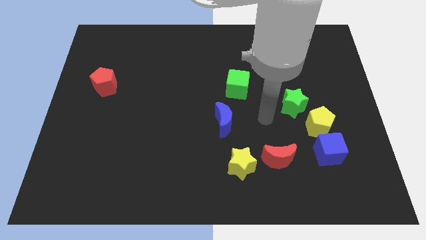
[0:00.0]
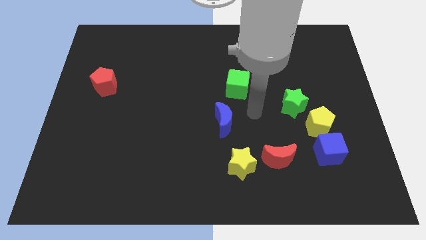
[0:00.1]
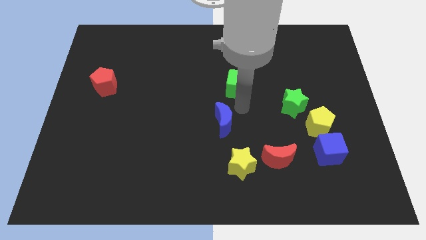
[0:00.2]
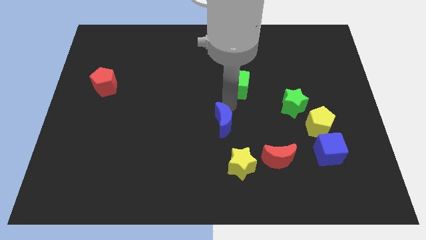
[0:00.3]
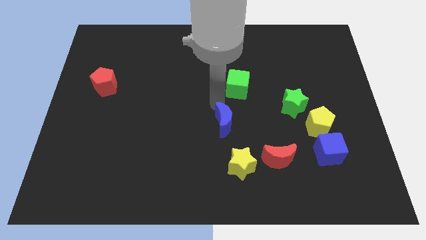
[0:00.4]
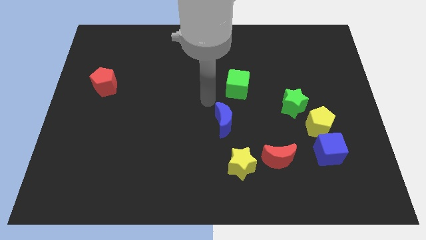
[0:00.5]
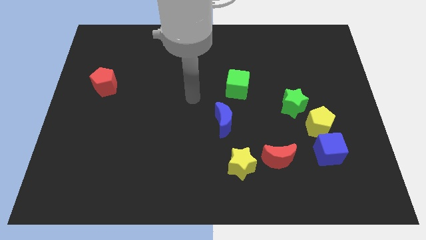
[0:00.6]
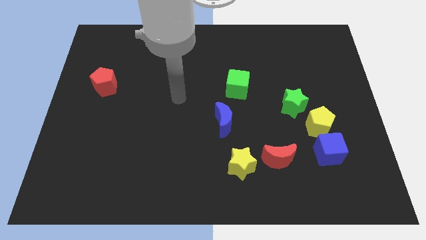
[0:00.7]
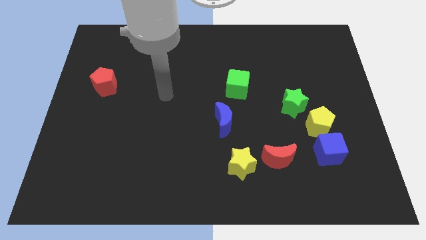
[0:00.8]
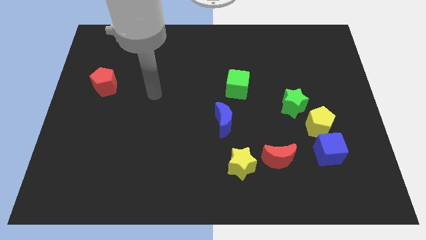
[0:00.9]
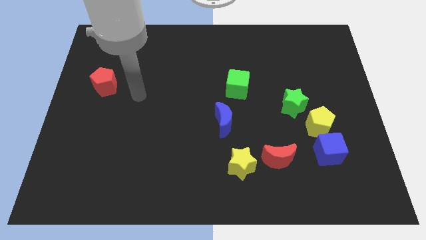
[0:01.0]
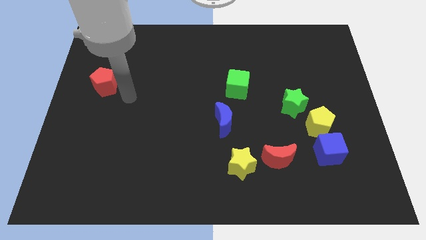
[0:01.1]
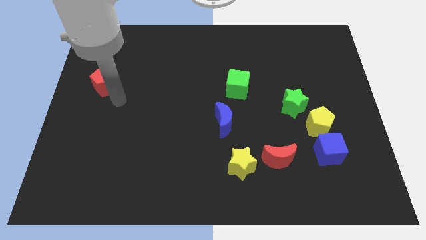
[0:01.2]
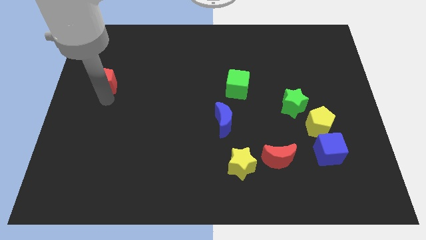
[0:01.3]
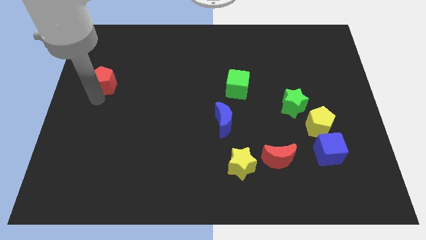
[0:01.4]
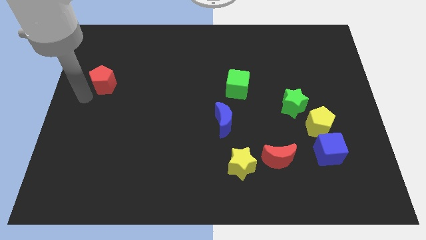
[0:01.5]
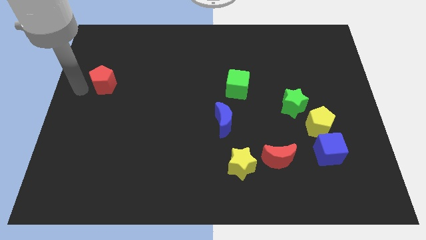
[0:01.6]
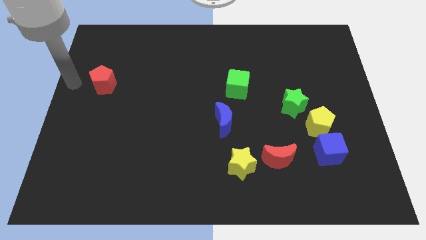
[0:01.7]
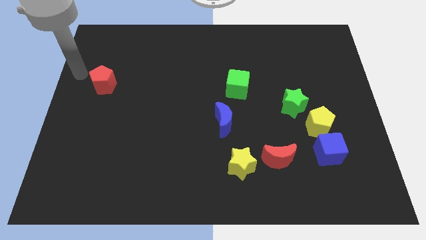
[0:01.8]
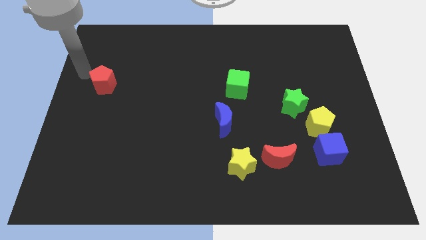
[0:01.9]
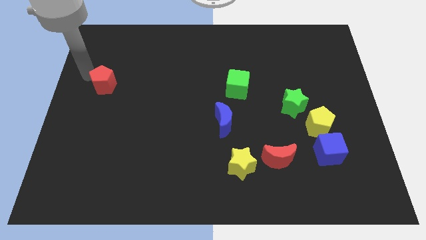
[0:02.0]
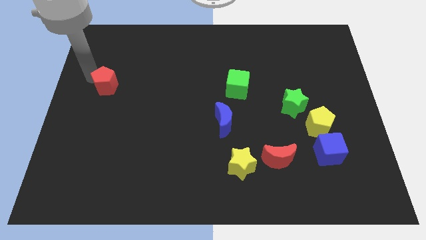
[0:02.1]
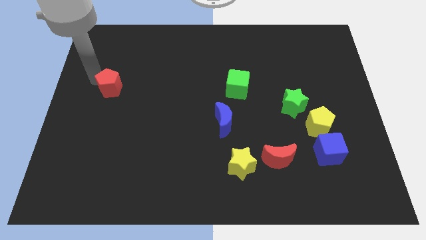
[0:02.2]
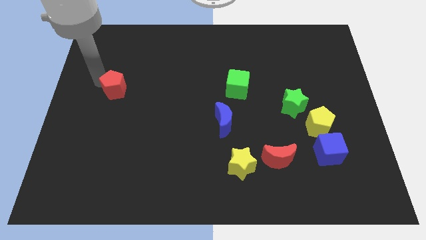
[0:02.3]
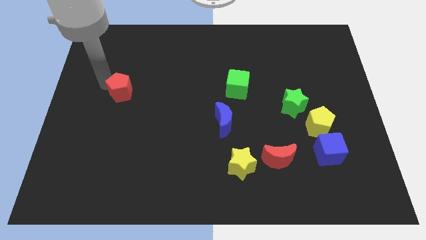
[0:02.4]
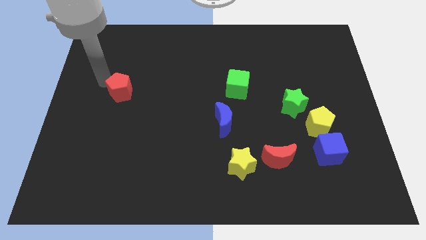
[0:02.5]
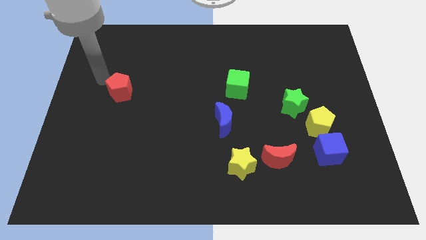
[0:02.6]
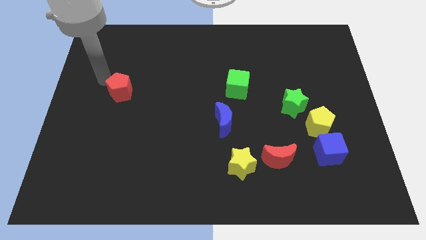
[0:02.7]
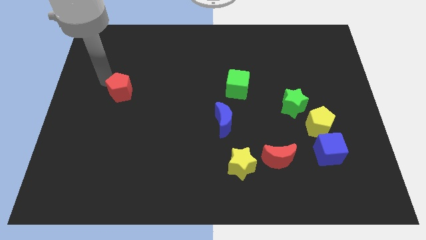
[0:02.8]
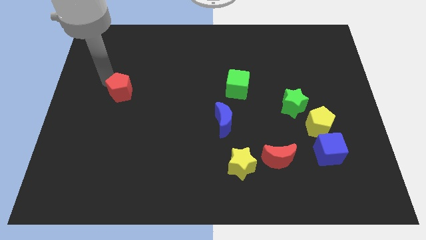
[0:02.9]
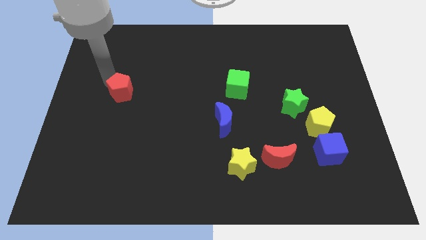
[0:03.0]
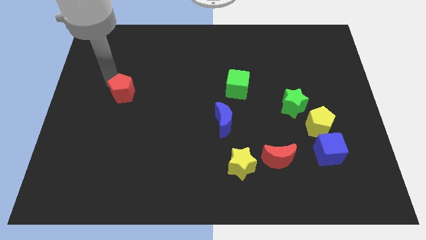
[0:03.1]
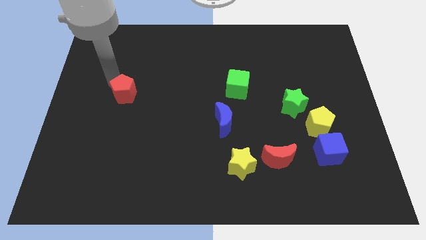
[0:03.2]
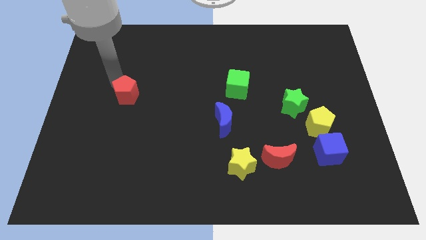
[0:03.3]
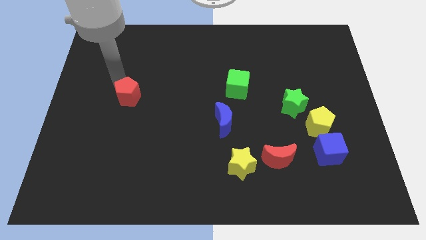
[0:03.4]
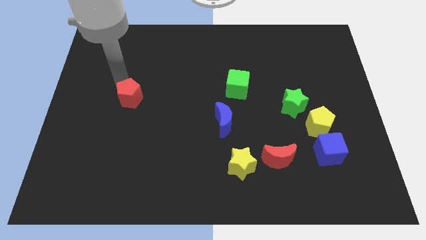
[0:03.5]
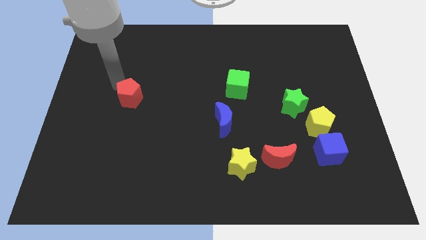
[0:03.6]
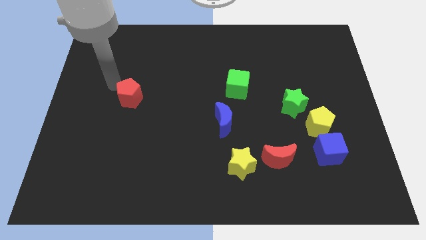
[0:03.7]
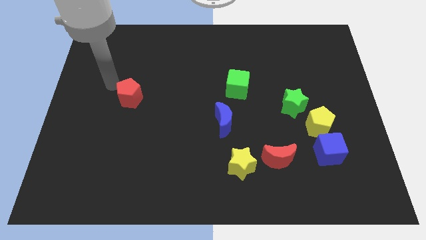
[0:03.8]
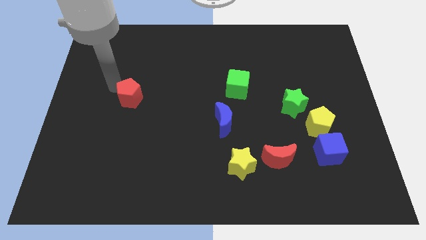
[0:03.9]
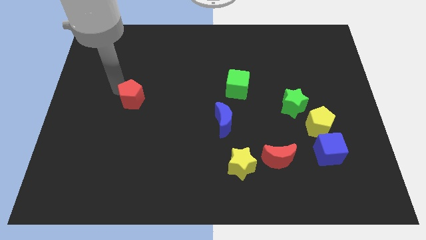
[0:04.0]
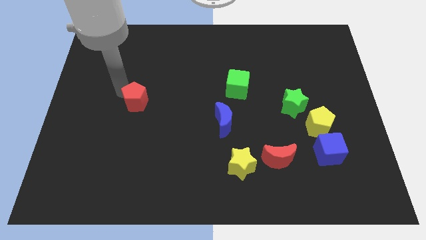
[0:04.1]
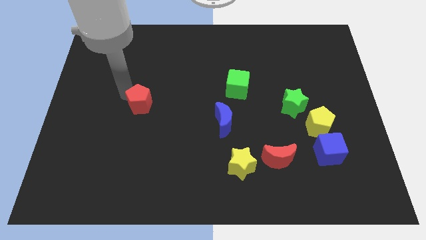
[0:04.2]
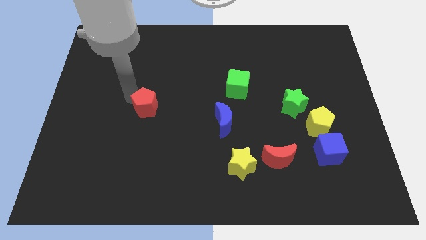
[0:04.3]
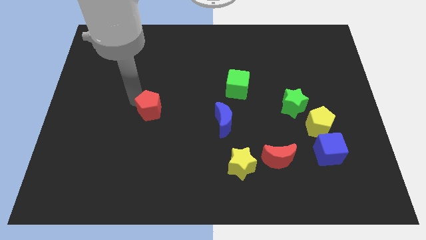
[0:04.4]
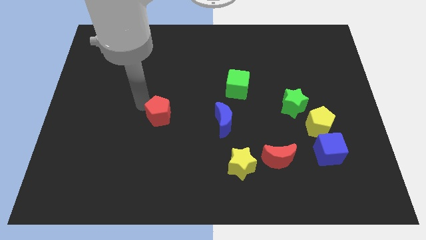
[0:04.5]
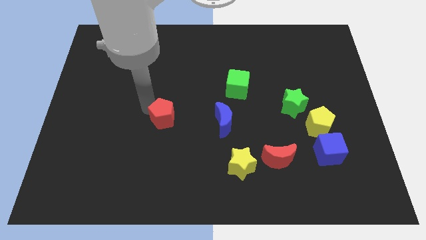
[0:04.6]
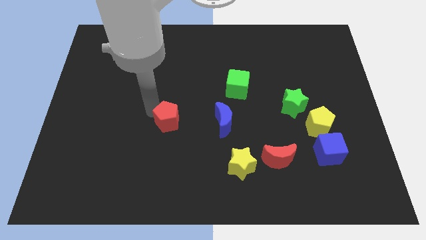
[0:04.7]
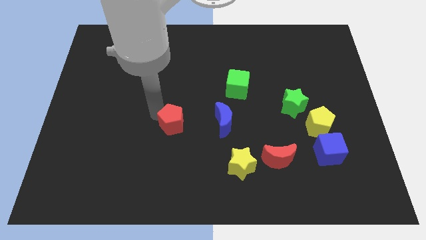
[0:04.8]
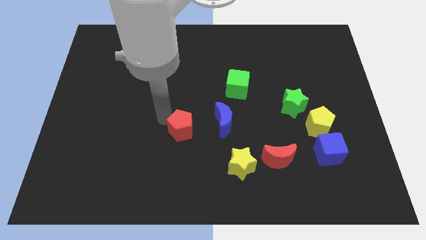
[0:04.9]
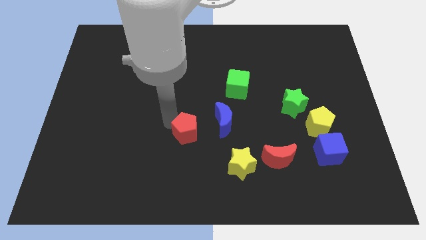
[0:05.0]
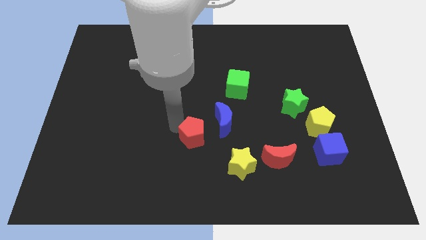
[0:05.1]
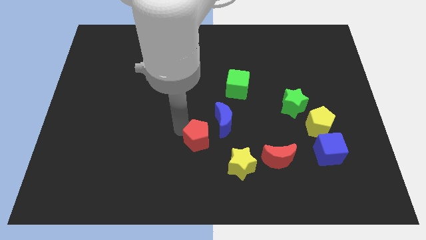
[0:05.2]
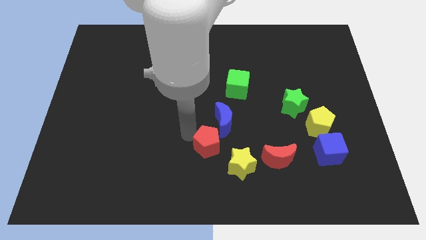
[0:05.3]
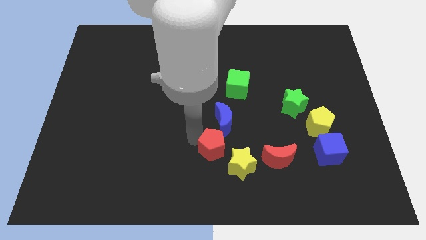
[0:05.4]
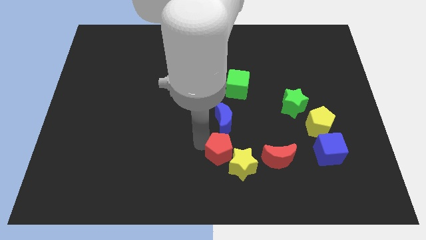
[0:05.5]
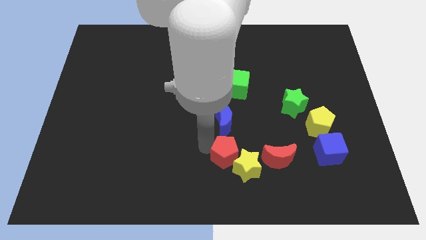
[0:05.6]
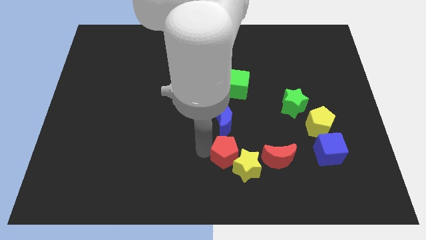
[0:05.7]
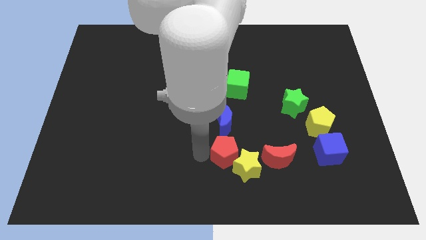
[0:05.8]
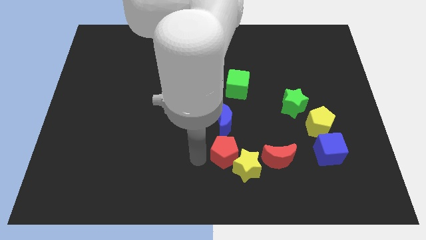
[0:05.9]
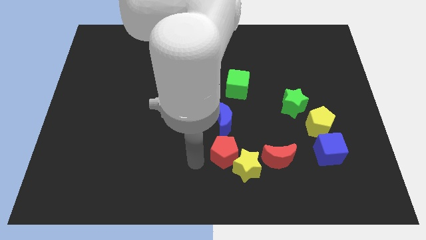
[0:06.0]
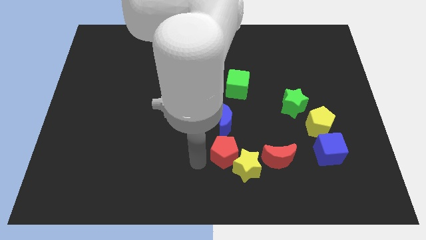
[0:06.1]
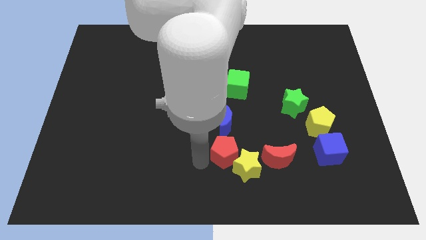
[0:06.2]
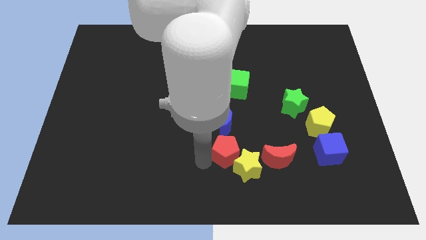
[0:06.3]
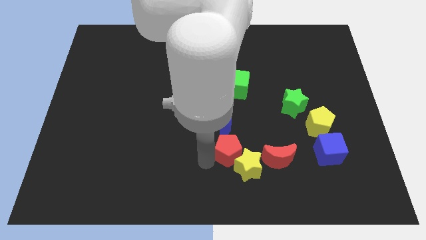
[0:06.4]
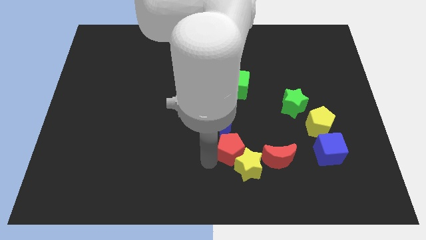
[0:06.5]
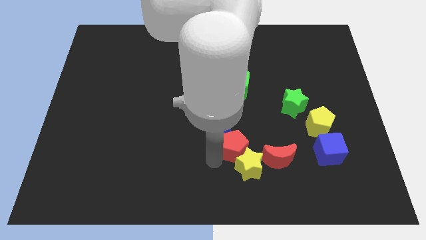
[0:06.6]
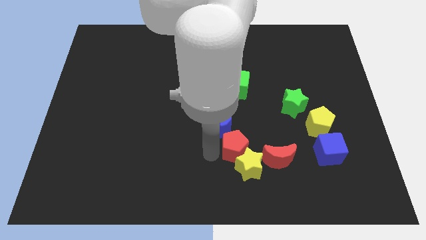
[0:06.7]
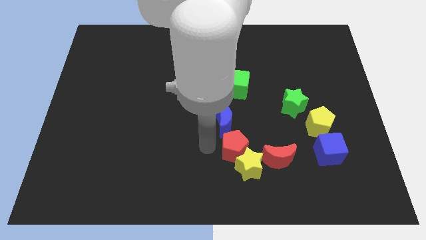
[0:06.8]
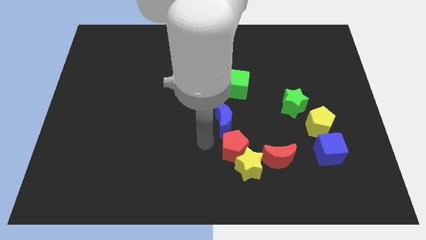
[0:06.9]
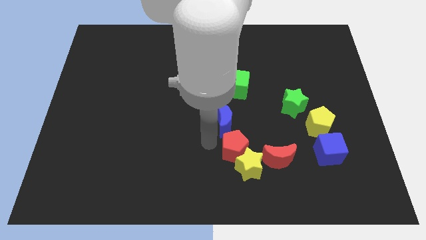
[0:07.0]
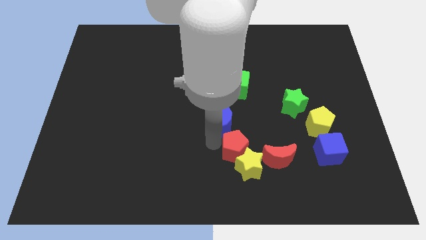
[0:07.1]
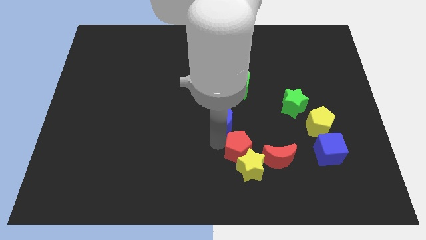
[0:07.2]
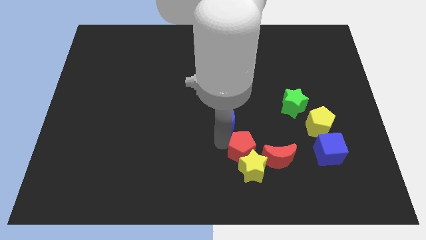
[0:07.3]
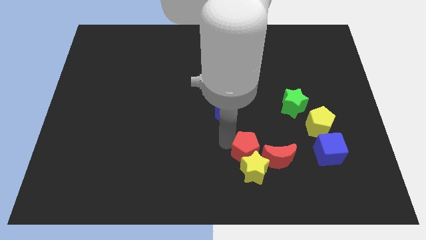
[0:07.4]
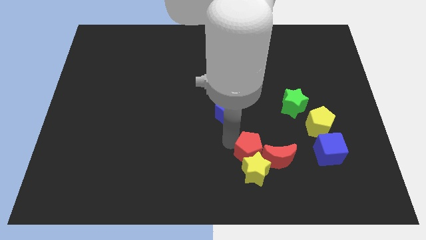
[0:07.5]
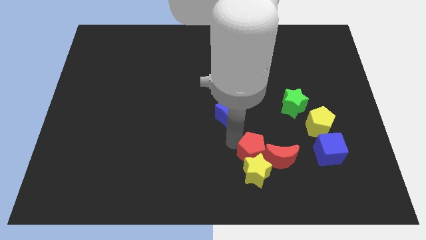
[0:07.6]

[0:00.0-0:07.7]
slide the red pentagon to the red moon
